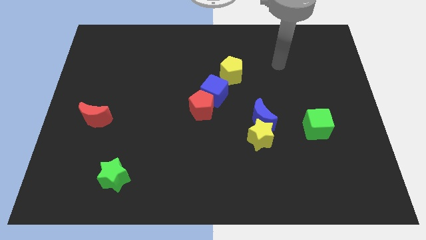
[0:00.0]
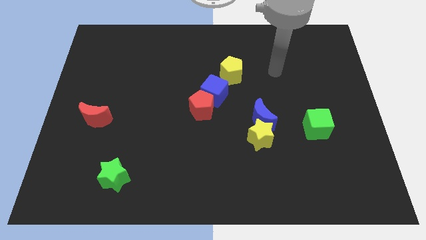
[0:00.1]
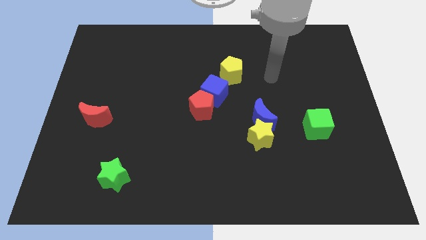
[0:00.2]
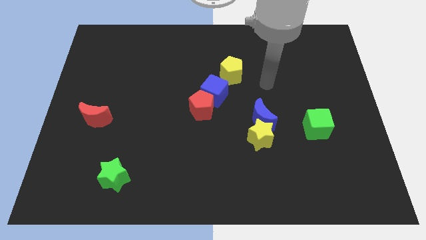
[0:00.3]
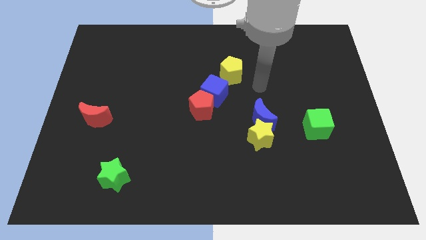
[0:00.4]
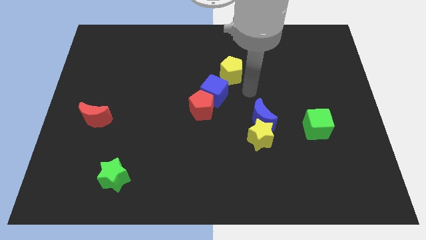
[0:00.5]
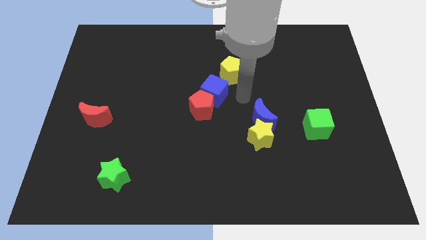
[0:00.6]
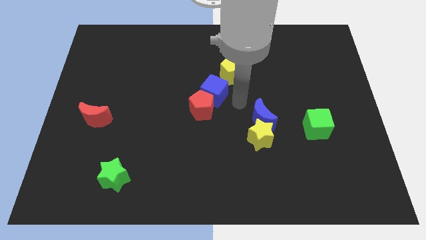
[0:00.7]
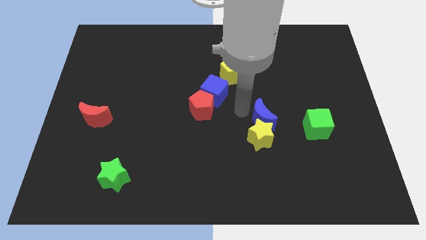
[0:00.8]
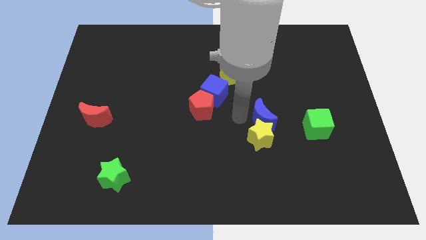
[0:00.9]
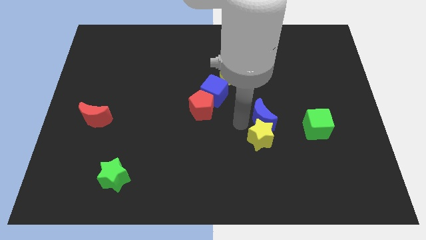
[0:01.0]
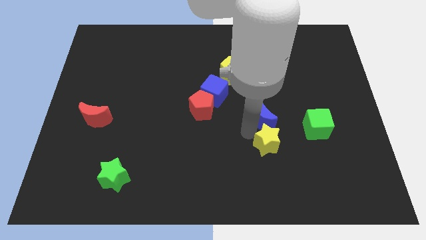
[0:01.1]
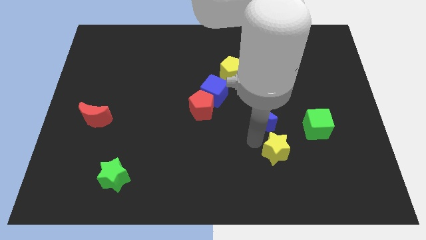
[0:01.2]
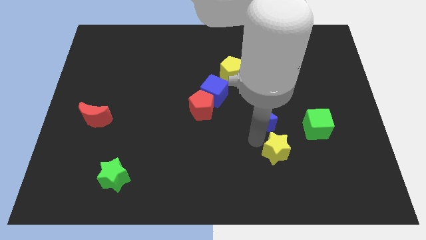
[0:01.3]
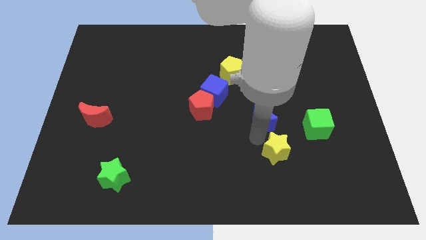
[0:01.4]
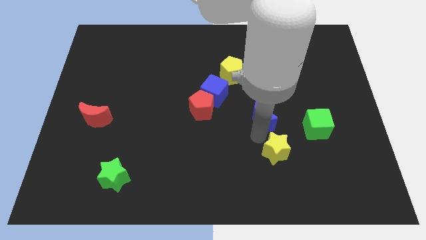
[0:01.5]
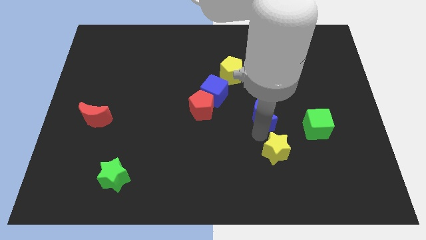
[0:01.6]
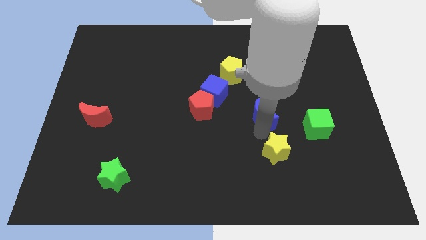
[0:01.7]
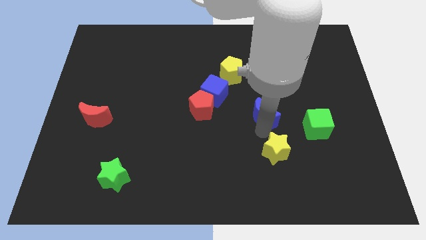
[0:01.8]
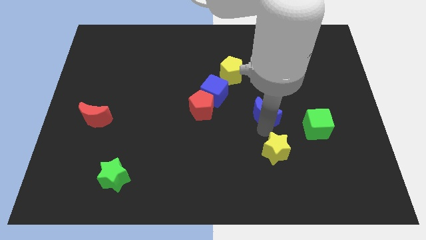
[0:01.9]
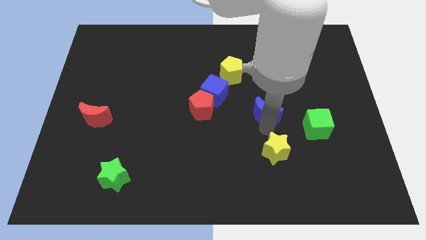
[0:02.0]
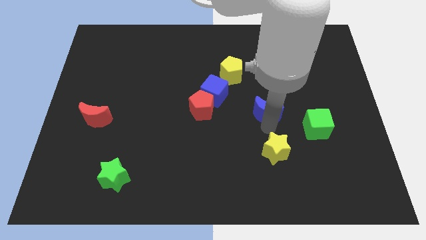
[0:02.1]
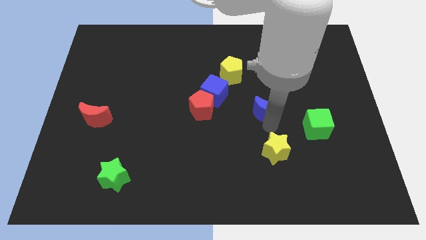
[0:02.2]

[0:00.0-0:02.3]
separate the blue moon from the yellow star

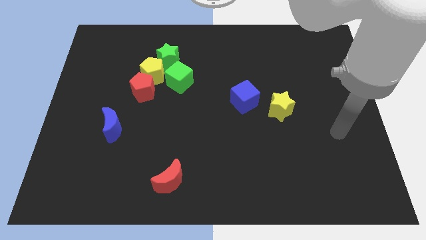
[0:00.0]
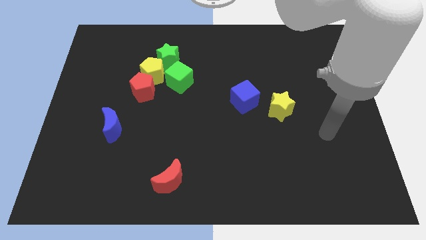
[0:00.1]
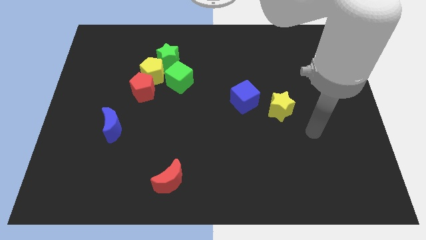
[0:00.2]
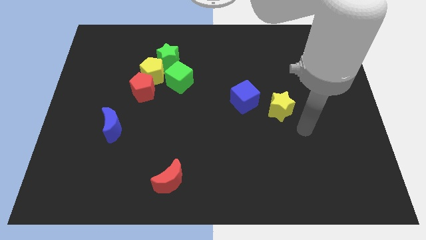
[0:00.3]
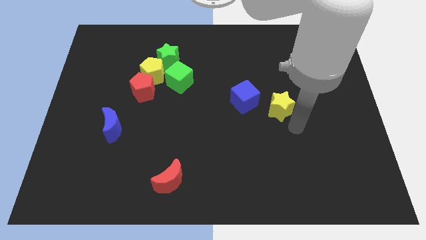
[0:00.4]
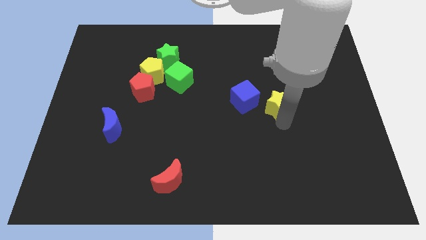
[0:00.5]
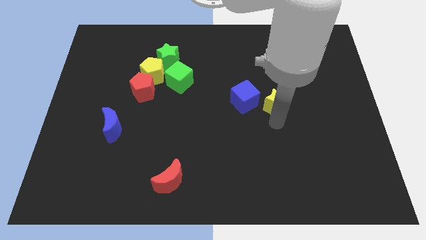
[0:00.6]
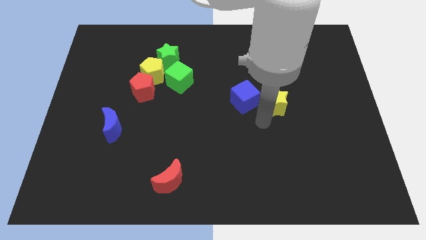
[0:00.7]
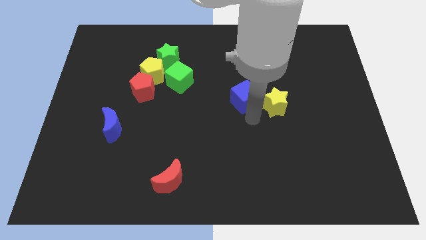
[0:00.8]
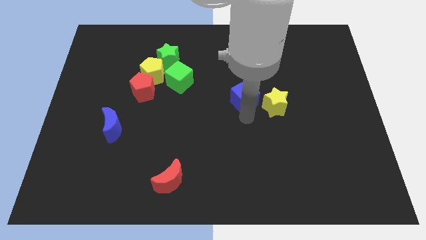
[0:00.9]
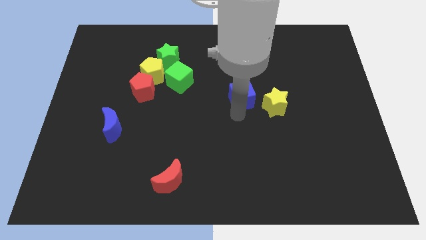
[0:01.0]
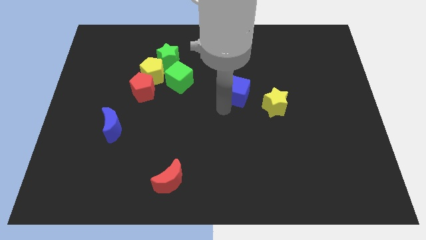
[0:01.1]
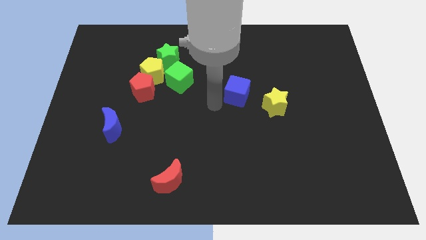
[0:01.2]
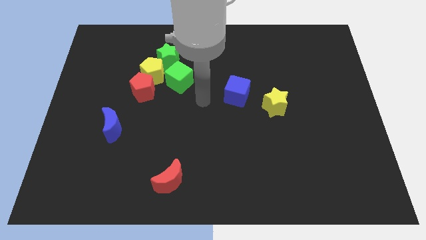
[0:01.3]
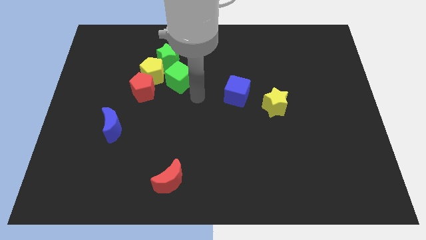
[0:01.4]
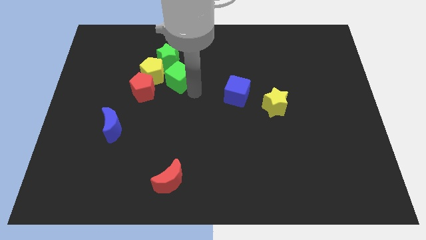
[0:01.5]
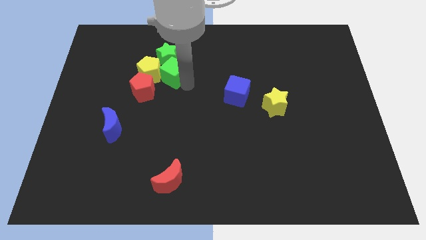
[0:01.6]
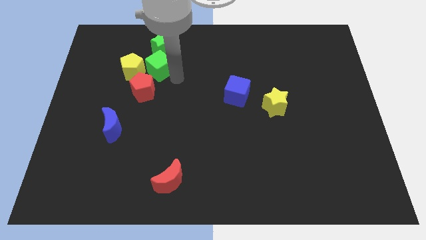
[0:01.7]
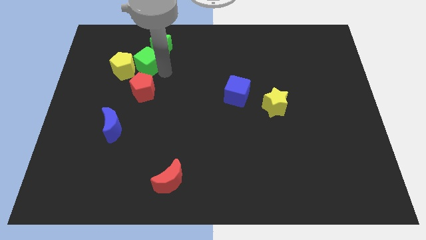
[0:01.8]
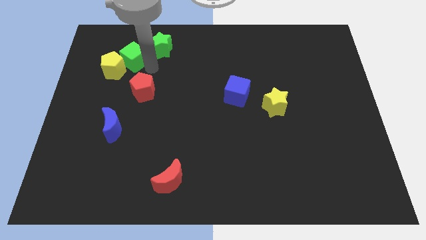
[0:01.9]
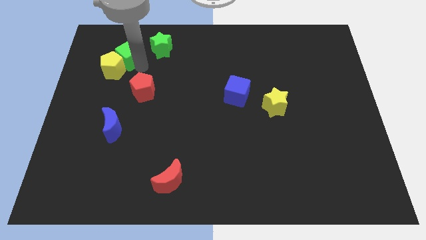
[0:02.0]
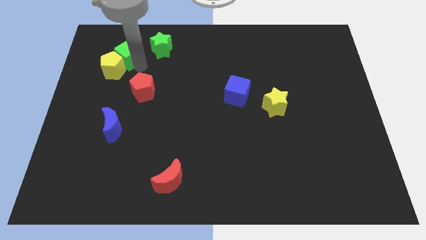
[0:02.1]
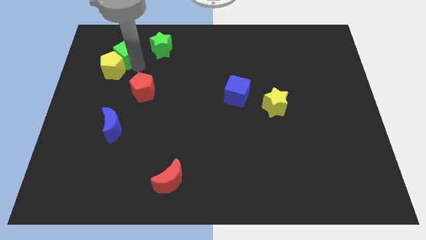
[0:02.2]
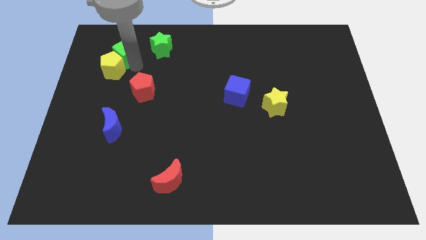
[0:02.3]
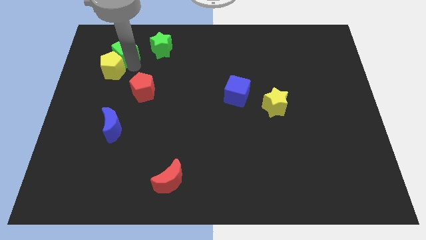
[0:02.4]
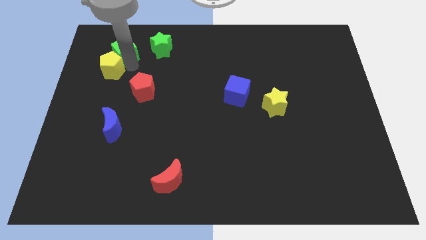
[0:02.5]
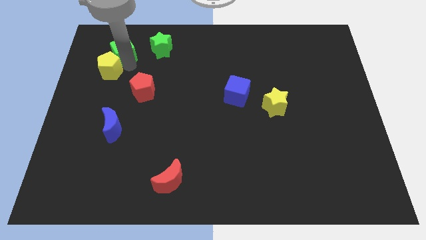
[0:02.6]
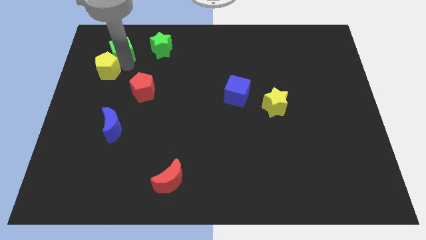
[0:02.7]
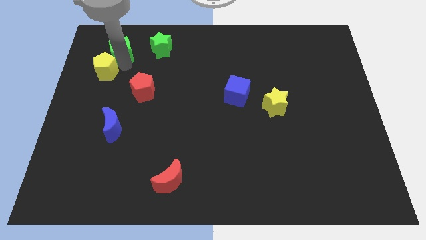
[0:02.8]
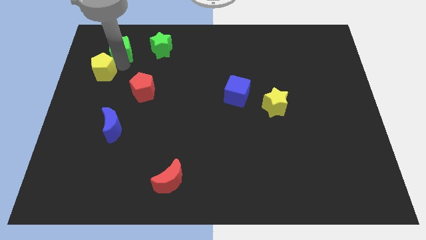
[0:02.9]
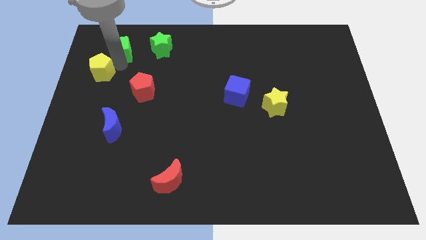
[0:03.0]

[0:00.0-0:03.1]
separate the yellow pentagon from the red pentagon, green star, and green cube

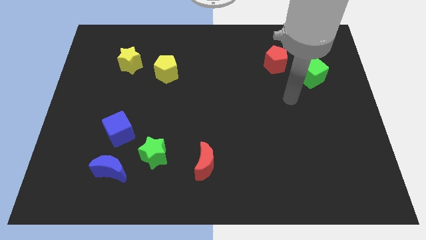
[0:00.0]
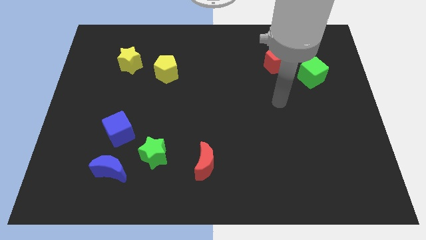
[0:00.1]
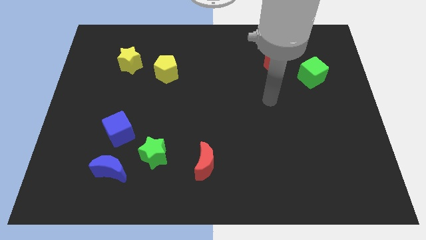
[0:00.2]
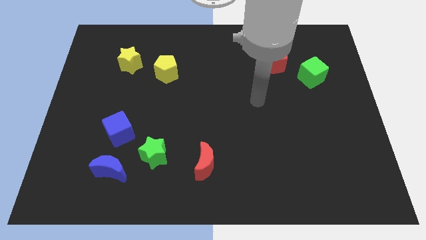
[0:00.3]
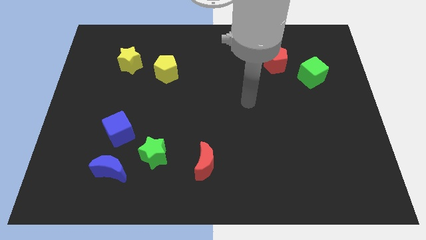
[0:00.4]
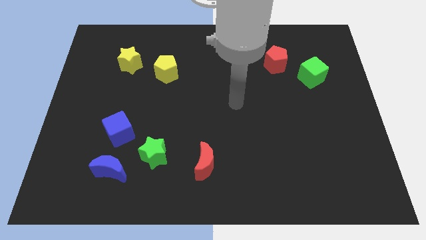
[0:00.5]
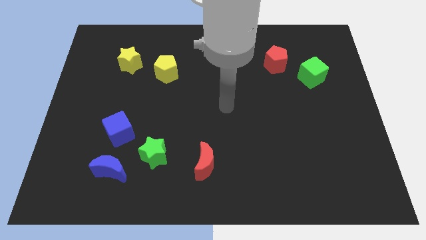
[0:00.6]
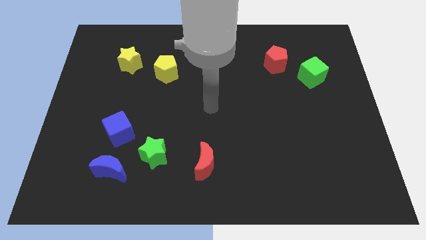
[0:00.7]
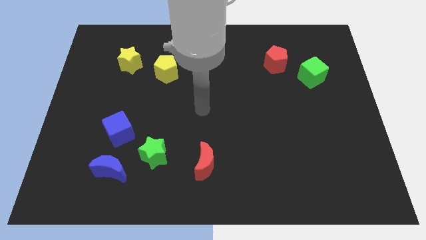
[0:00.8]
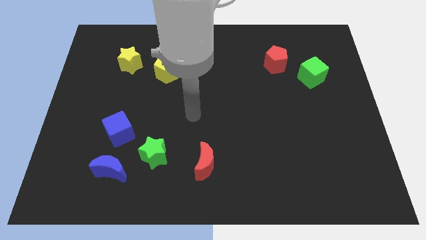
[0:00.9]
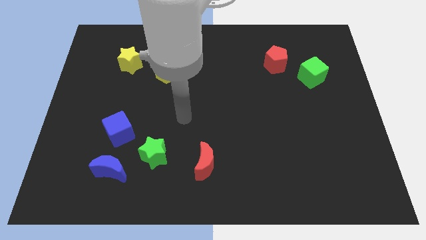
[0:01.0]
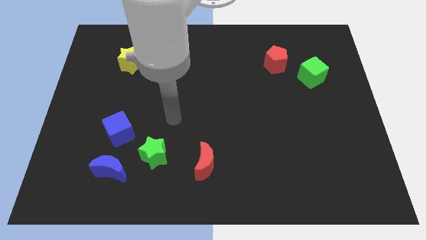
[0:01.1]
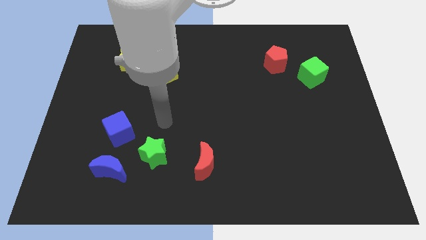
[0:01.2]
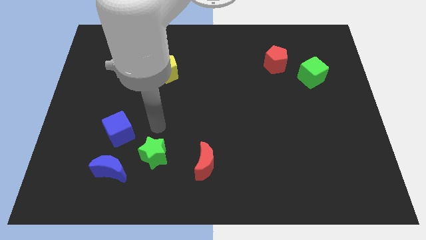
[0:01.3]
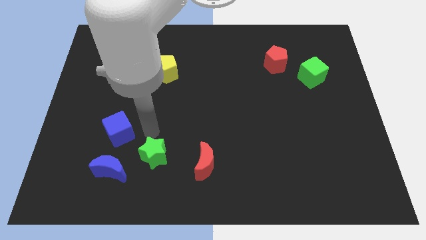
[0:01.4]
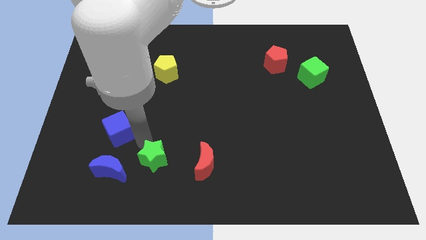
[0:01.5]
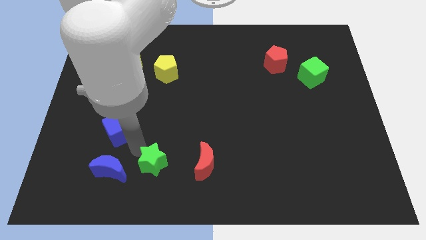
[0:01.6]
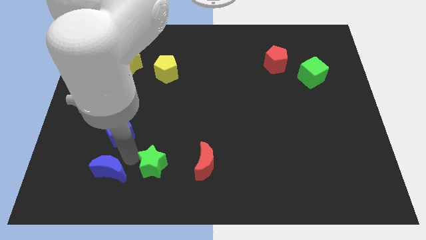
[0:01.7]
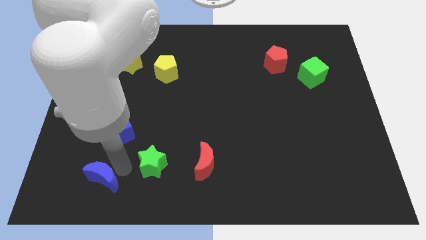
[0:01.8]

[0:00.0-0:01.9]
pull the green star apart from the blue moon

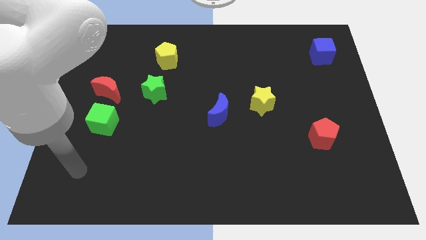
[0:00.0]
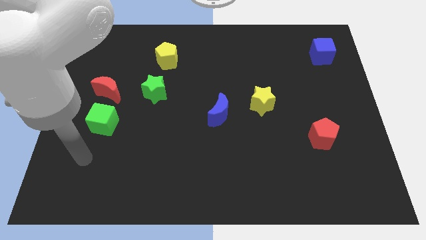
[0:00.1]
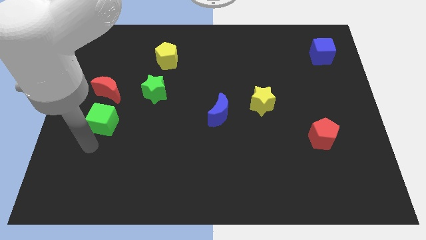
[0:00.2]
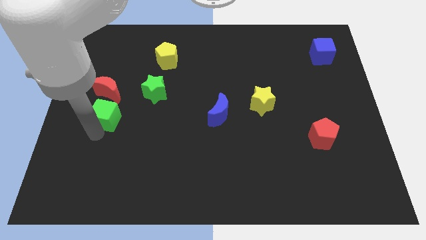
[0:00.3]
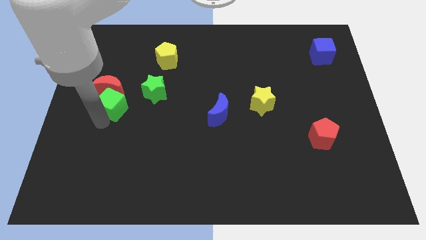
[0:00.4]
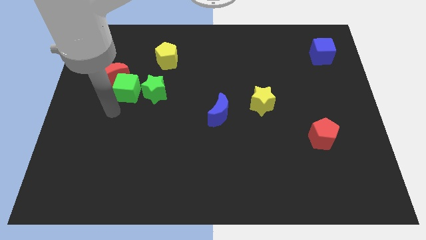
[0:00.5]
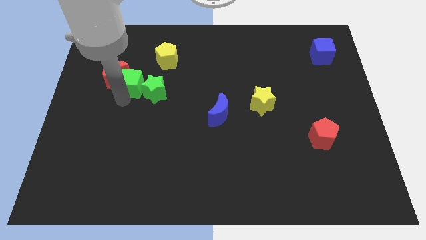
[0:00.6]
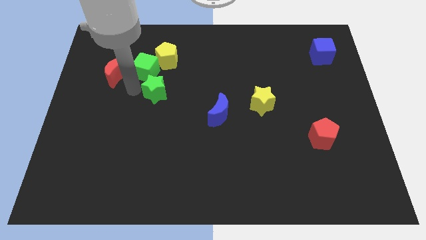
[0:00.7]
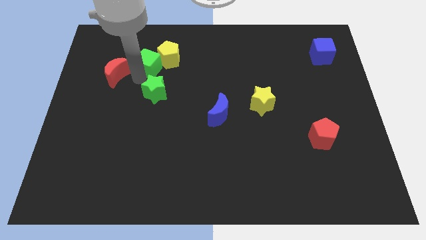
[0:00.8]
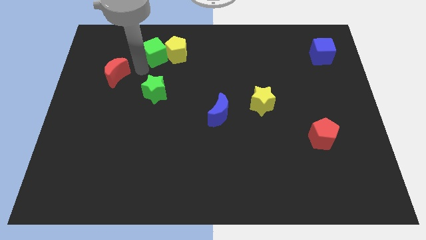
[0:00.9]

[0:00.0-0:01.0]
pull the red moon apart from the green cube

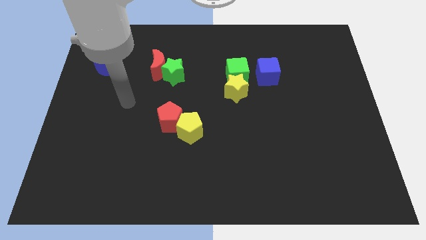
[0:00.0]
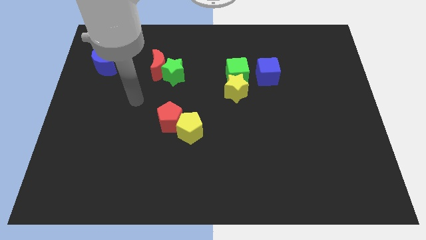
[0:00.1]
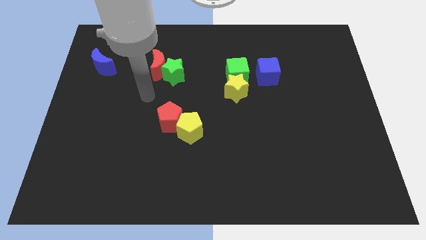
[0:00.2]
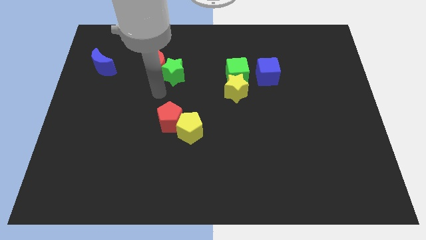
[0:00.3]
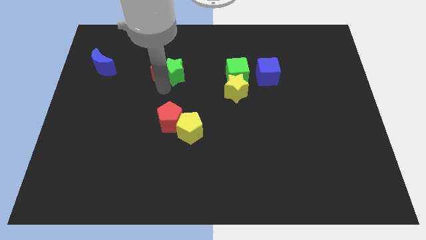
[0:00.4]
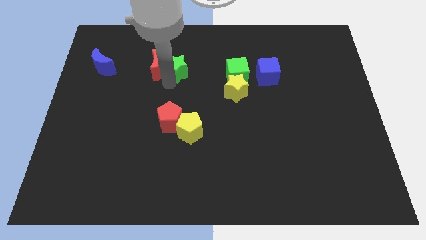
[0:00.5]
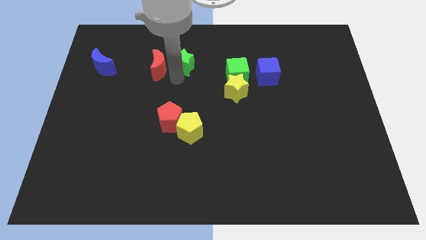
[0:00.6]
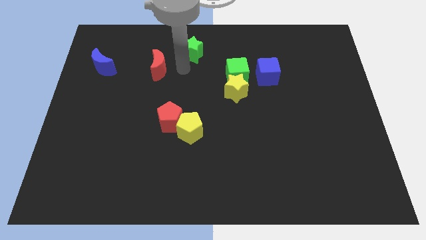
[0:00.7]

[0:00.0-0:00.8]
separate the red moon from the green star
